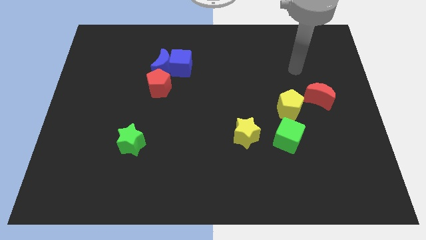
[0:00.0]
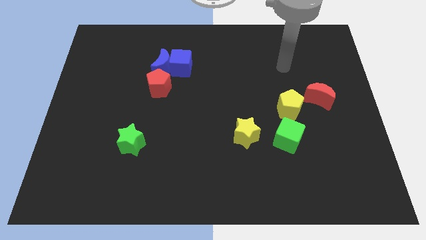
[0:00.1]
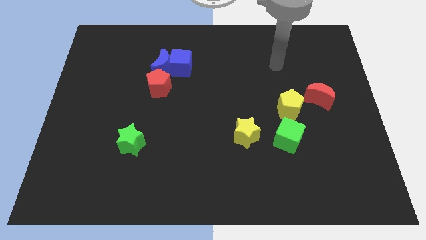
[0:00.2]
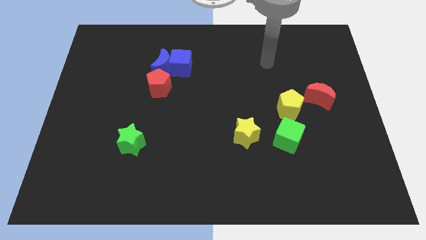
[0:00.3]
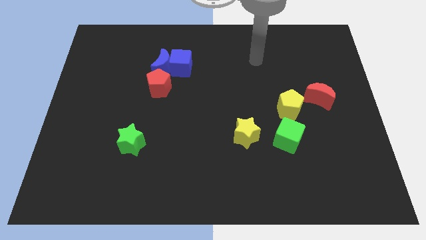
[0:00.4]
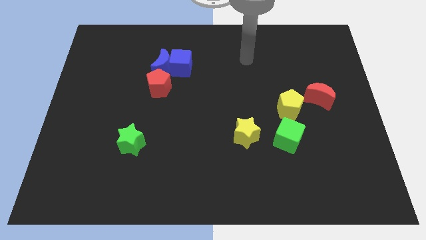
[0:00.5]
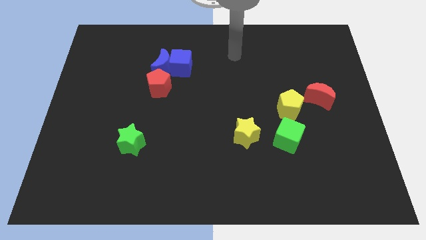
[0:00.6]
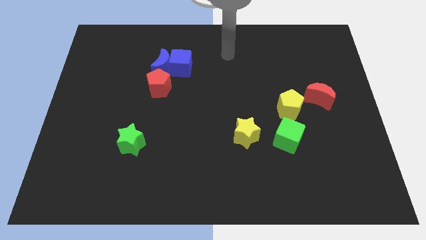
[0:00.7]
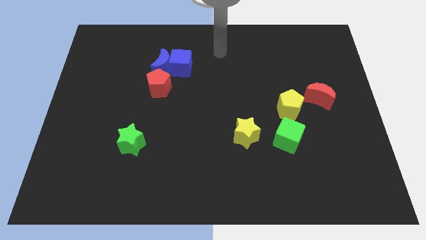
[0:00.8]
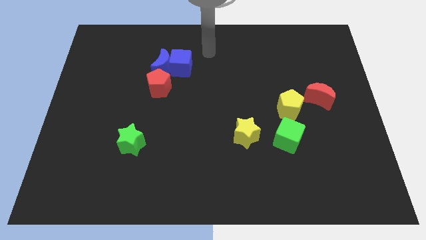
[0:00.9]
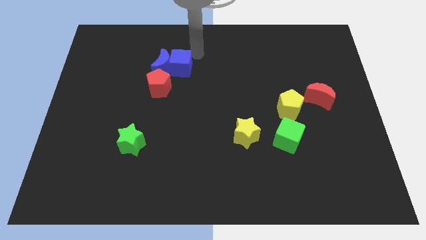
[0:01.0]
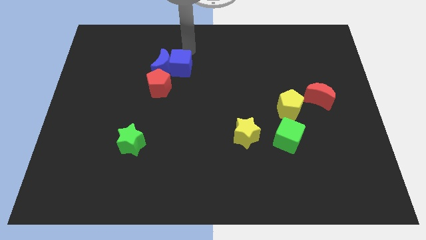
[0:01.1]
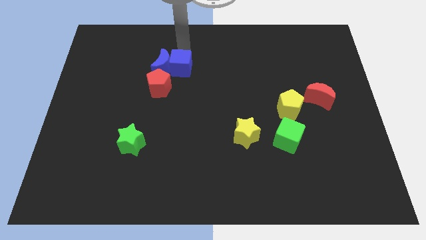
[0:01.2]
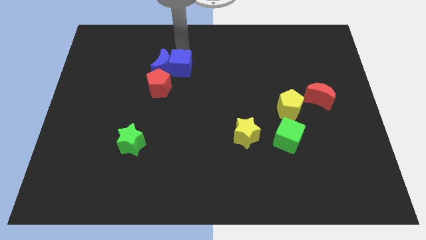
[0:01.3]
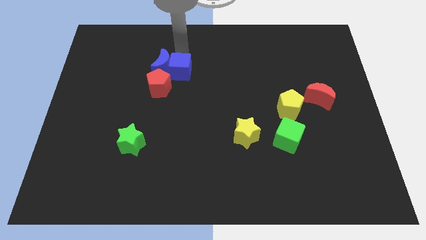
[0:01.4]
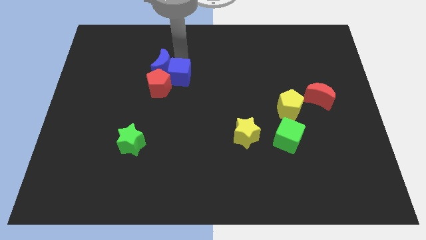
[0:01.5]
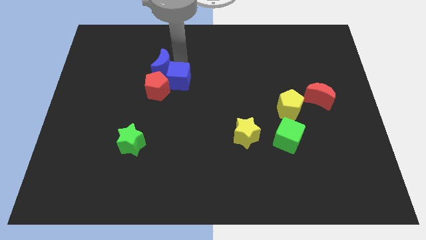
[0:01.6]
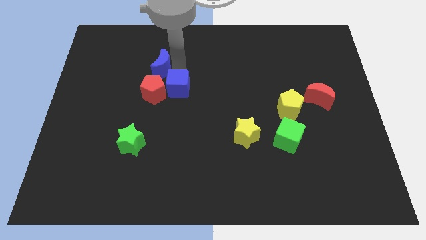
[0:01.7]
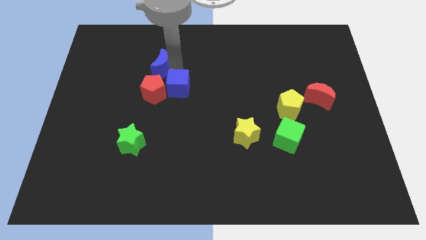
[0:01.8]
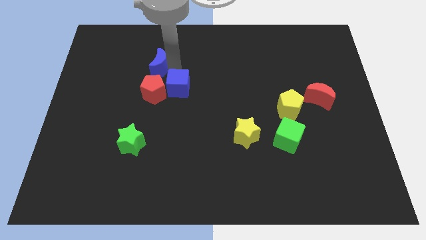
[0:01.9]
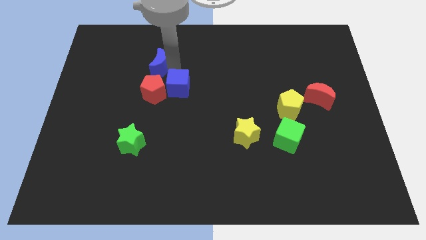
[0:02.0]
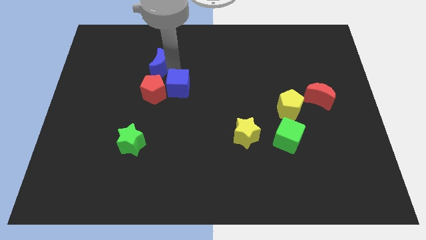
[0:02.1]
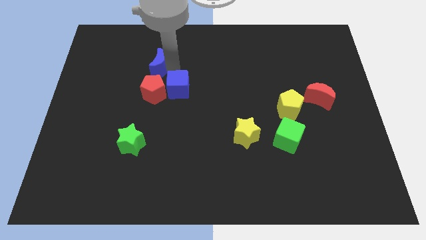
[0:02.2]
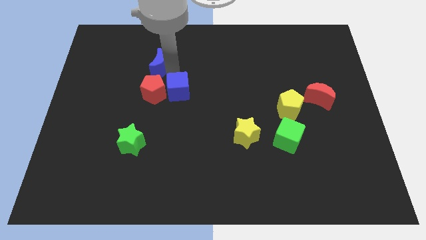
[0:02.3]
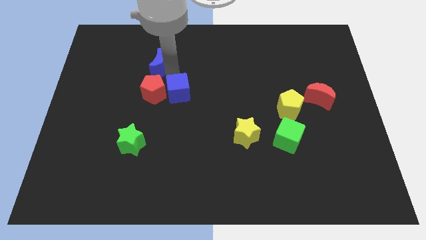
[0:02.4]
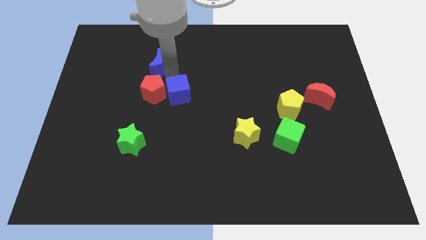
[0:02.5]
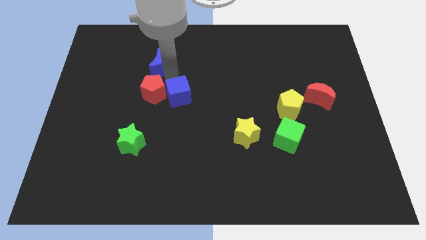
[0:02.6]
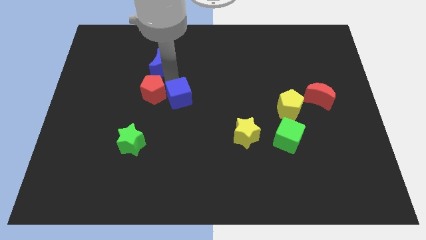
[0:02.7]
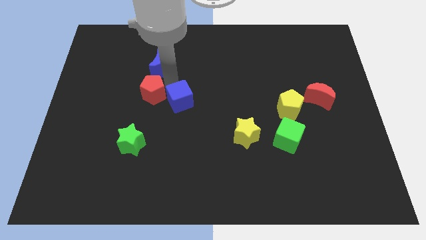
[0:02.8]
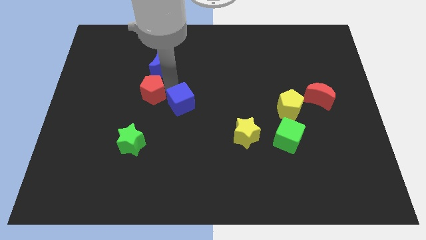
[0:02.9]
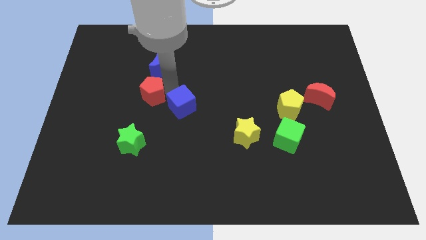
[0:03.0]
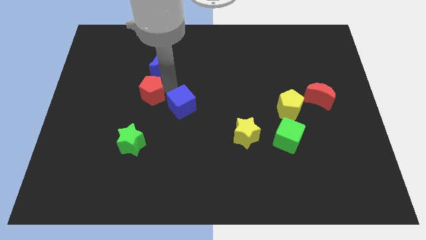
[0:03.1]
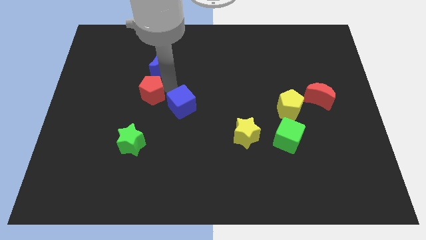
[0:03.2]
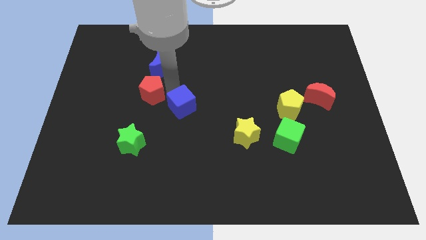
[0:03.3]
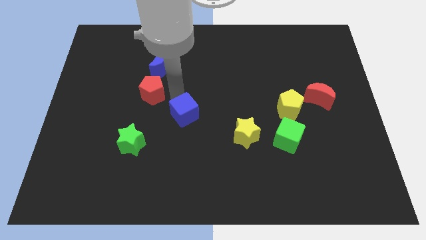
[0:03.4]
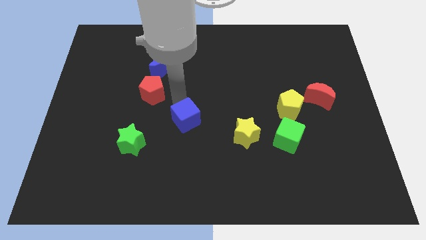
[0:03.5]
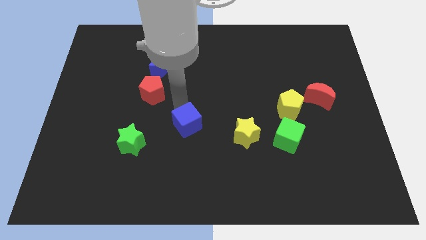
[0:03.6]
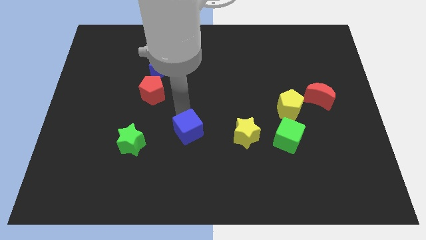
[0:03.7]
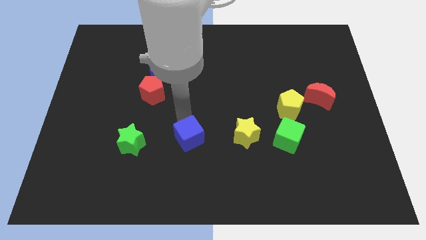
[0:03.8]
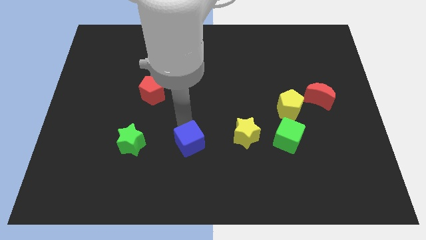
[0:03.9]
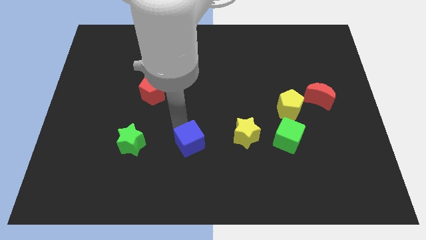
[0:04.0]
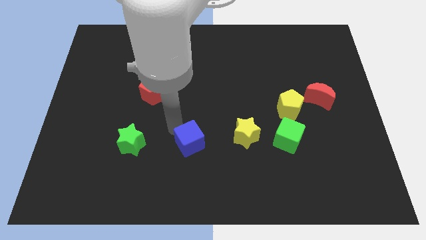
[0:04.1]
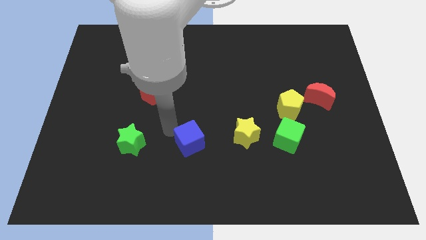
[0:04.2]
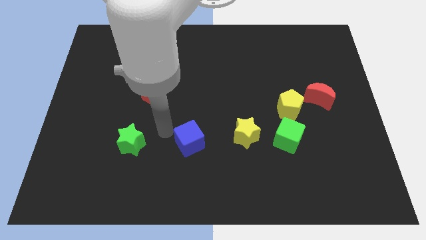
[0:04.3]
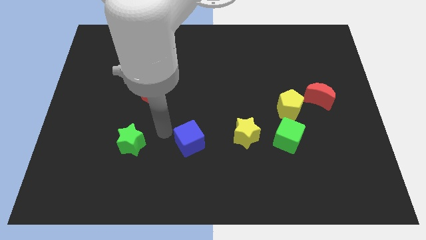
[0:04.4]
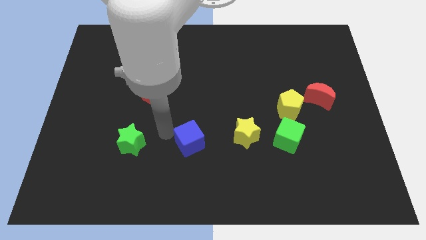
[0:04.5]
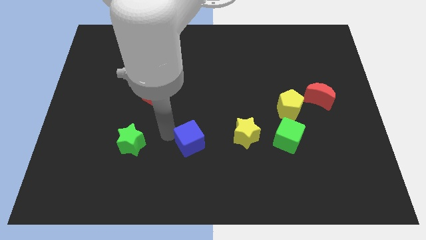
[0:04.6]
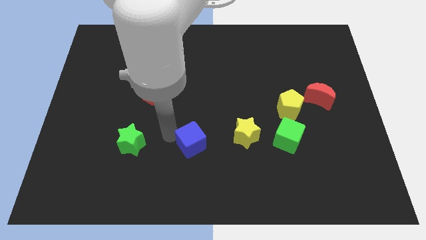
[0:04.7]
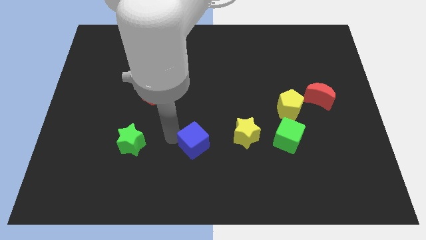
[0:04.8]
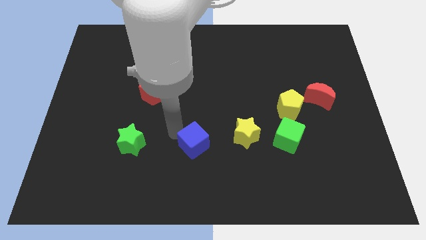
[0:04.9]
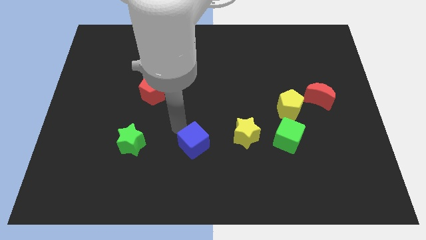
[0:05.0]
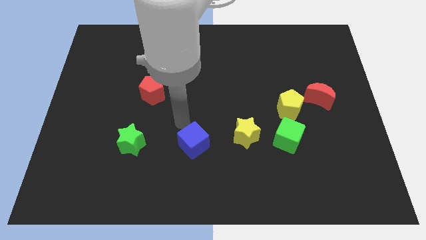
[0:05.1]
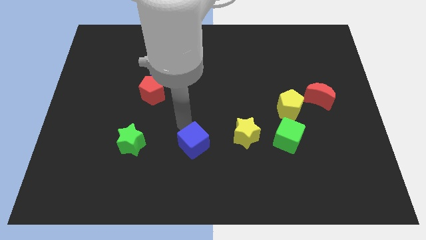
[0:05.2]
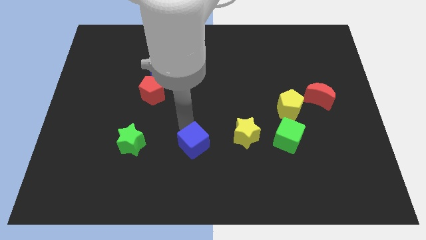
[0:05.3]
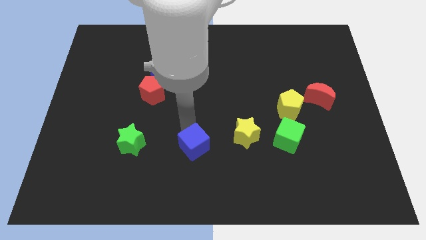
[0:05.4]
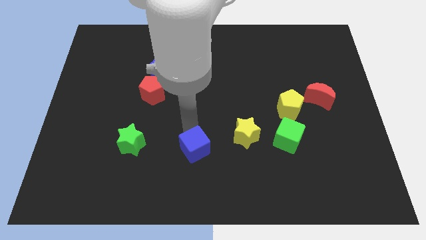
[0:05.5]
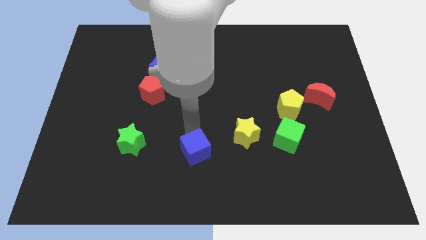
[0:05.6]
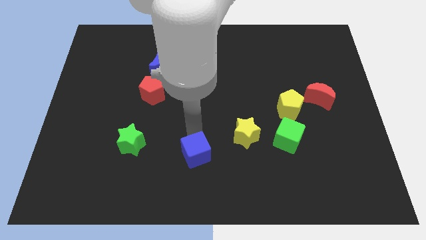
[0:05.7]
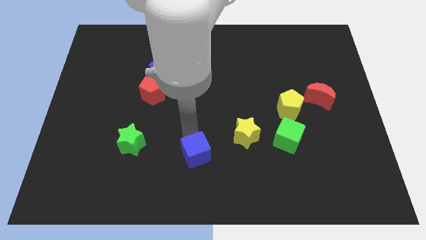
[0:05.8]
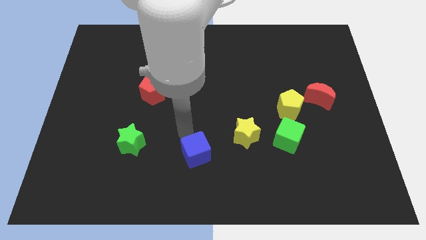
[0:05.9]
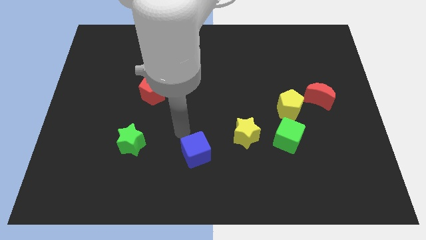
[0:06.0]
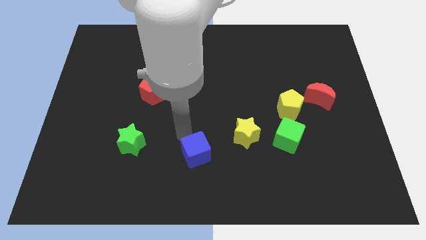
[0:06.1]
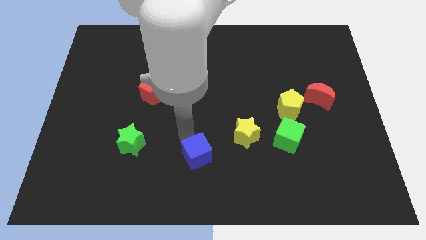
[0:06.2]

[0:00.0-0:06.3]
put the blue cube to the bottom

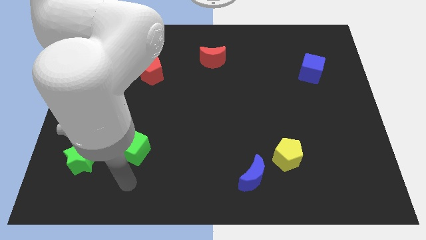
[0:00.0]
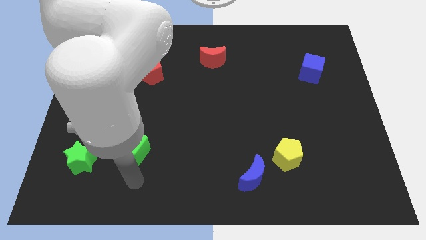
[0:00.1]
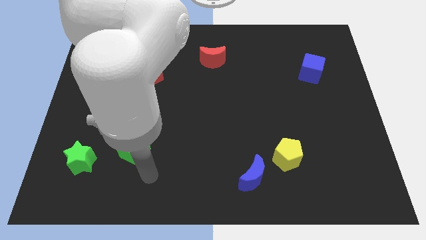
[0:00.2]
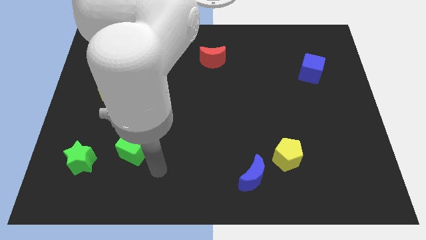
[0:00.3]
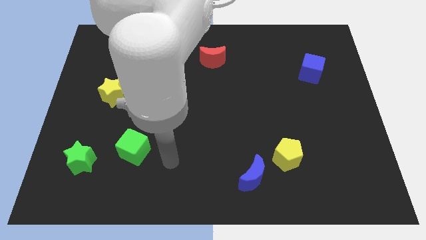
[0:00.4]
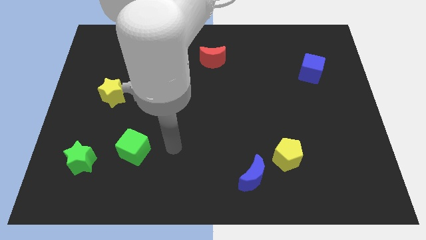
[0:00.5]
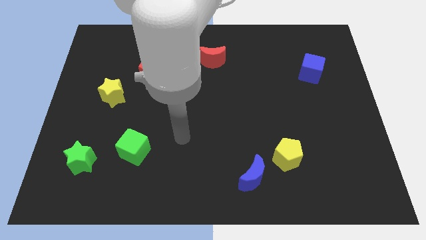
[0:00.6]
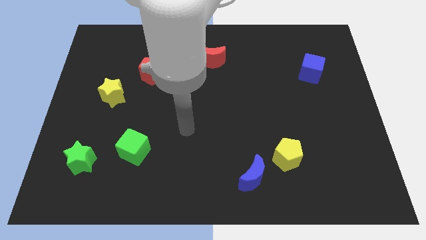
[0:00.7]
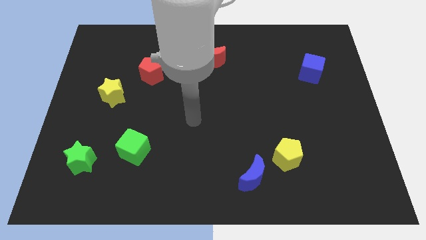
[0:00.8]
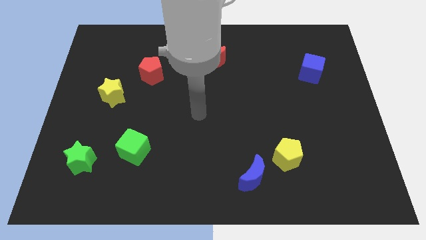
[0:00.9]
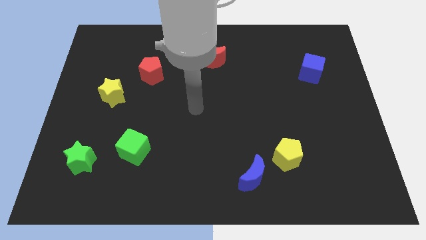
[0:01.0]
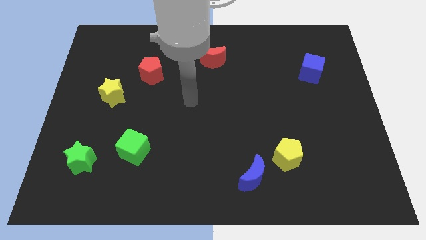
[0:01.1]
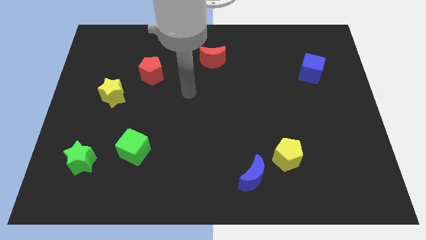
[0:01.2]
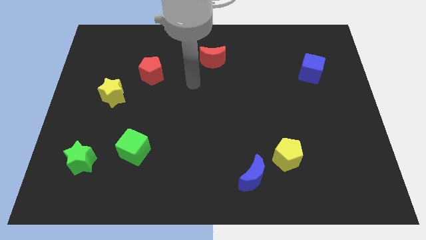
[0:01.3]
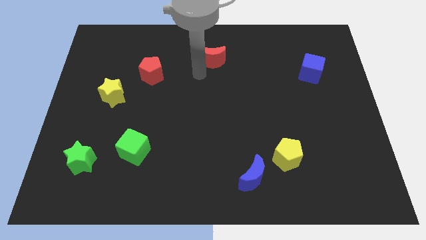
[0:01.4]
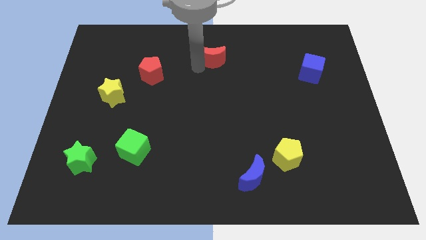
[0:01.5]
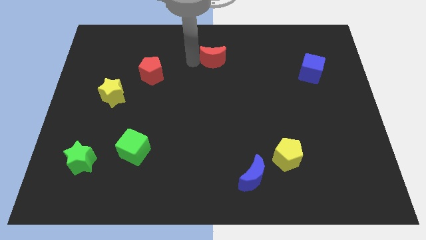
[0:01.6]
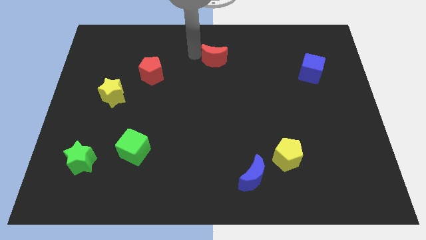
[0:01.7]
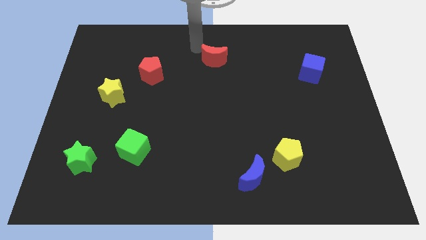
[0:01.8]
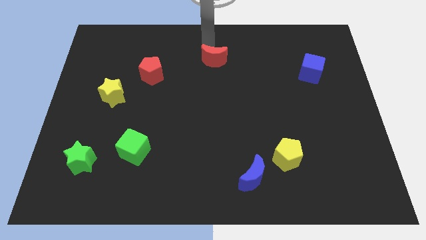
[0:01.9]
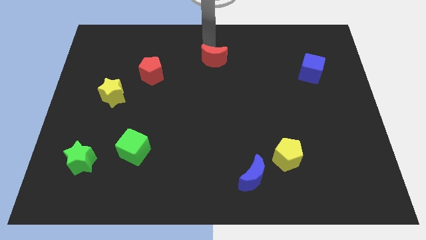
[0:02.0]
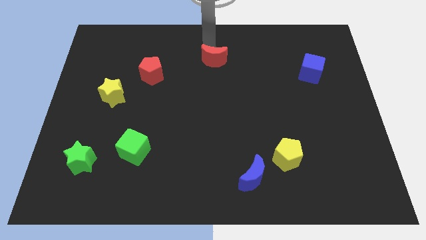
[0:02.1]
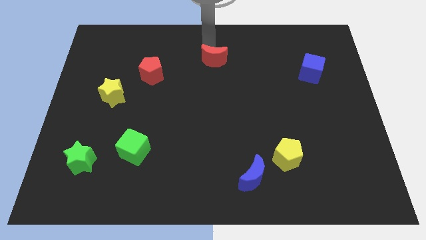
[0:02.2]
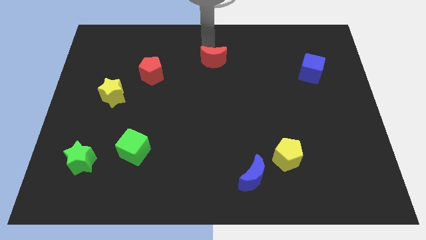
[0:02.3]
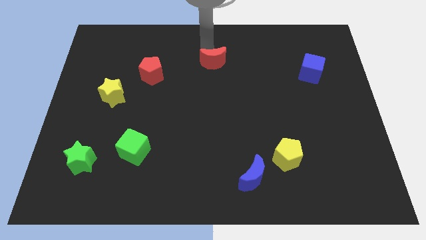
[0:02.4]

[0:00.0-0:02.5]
slide the red moon to the center of the board
